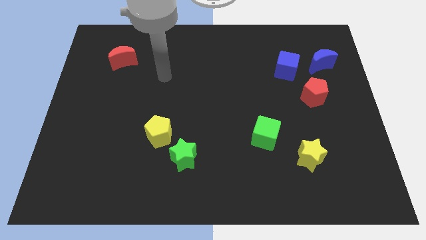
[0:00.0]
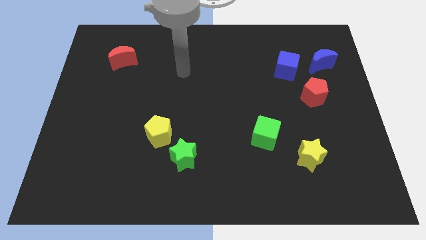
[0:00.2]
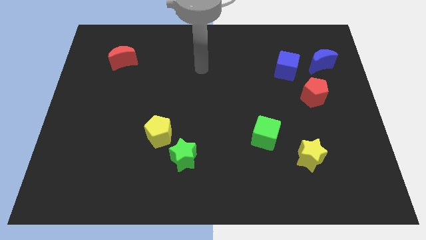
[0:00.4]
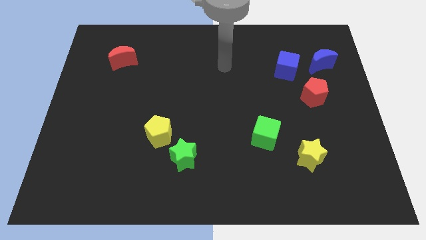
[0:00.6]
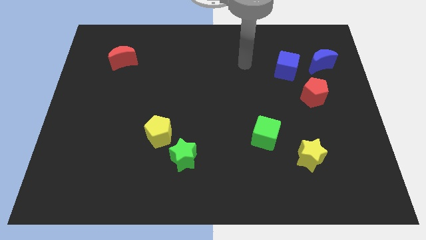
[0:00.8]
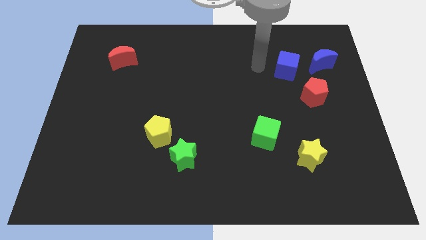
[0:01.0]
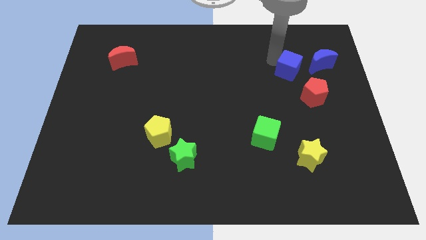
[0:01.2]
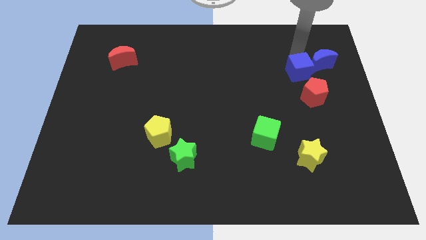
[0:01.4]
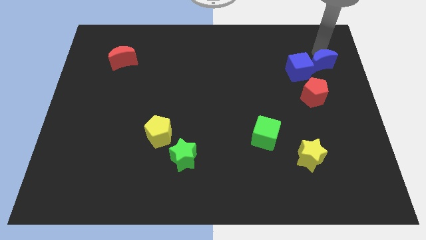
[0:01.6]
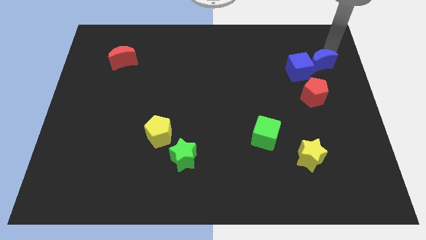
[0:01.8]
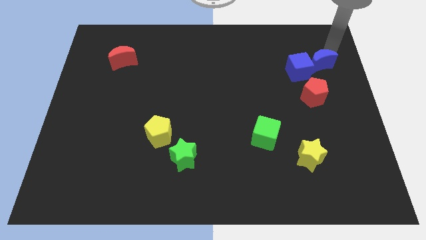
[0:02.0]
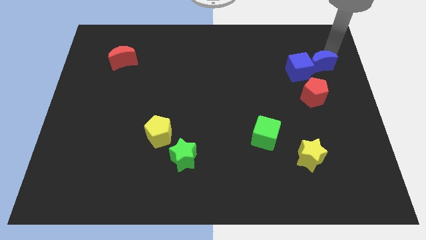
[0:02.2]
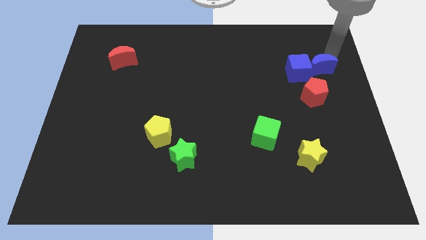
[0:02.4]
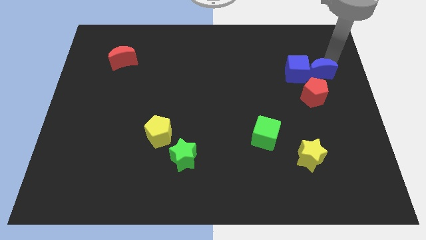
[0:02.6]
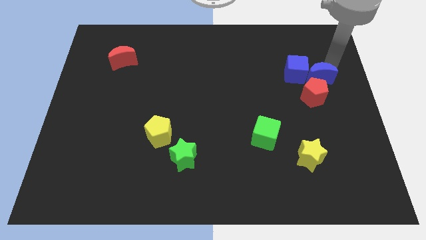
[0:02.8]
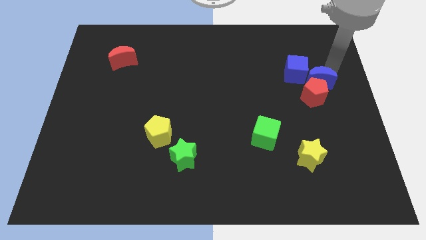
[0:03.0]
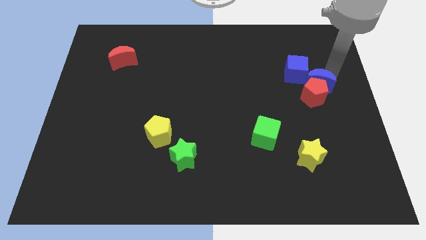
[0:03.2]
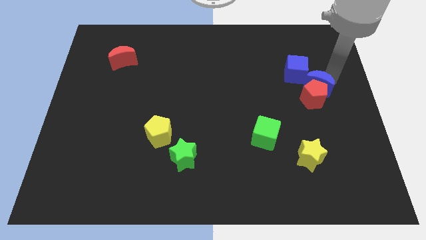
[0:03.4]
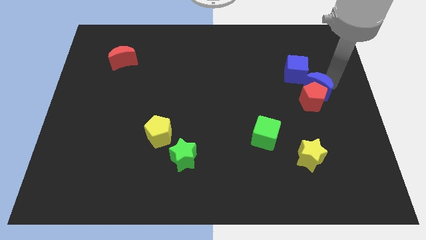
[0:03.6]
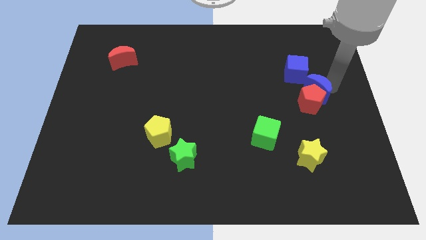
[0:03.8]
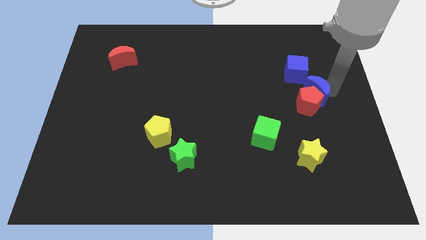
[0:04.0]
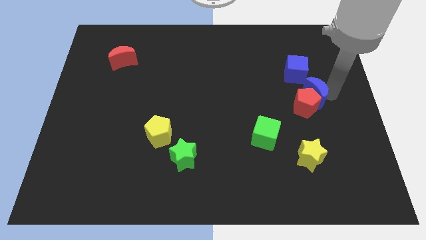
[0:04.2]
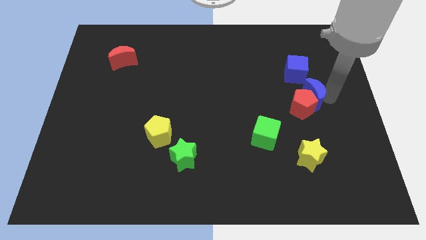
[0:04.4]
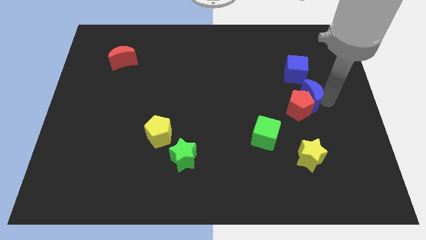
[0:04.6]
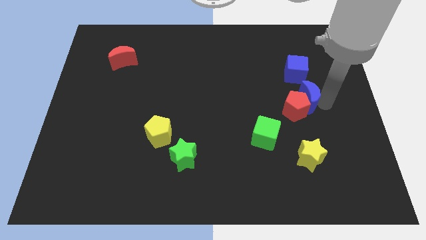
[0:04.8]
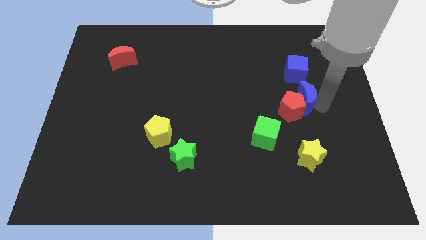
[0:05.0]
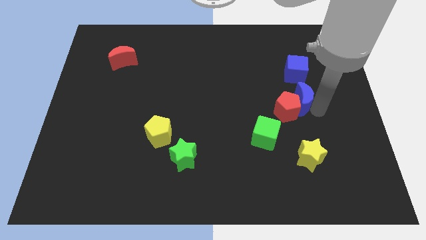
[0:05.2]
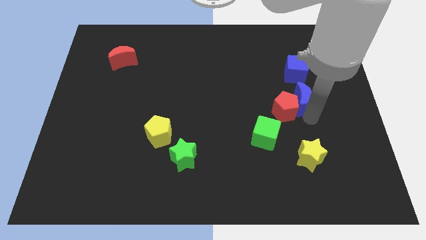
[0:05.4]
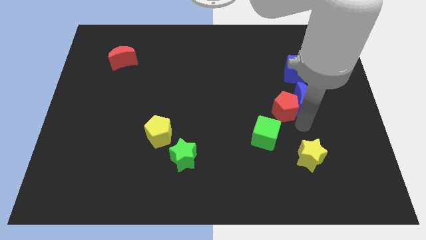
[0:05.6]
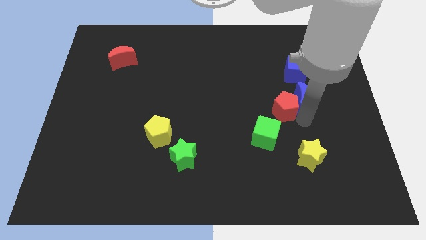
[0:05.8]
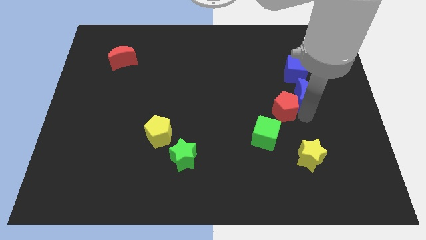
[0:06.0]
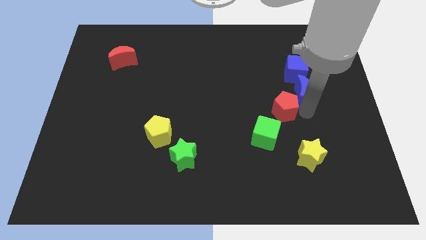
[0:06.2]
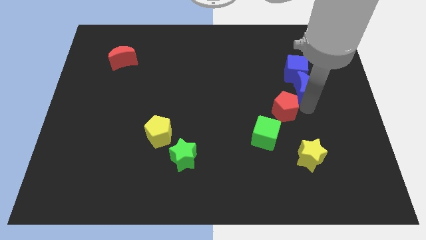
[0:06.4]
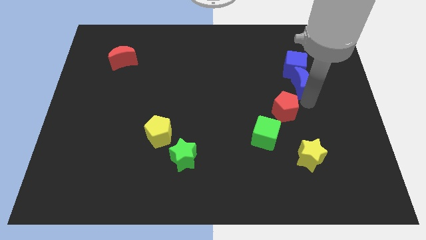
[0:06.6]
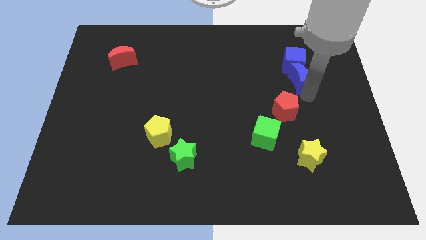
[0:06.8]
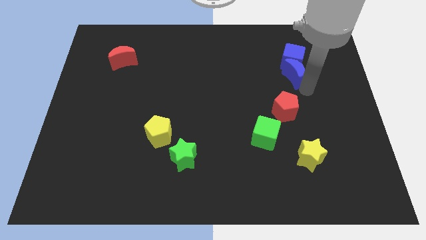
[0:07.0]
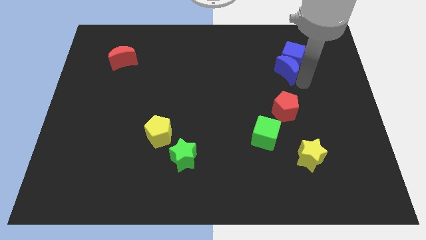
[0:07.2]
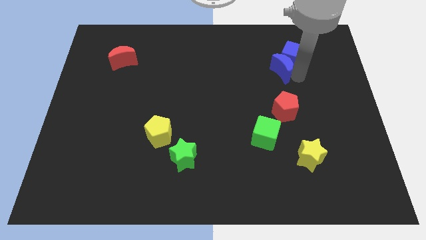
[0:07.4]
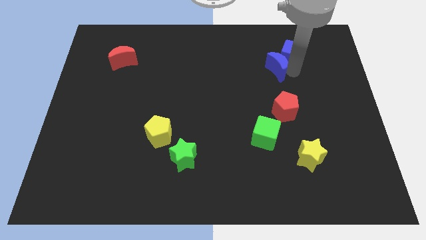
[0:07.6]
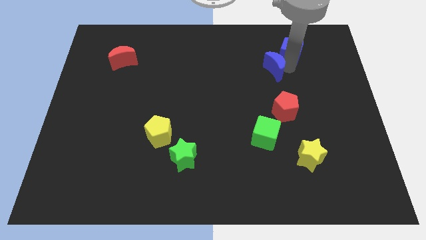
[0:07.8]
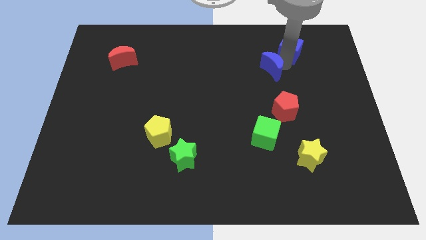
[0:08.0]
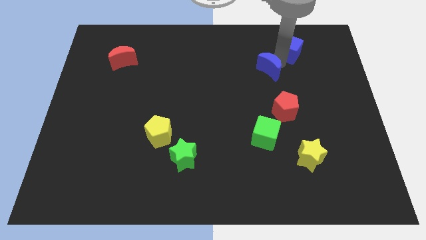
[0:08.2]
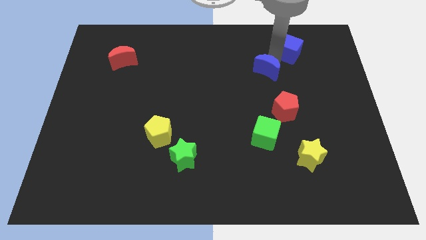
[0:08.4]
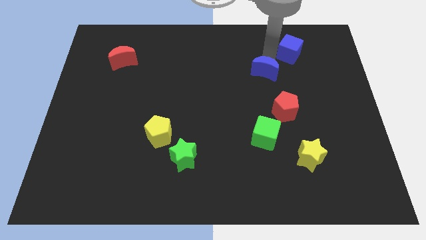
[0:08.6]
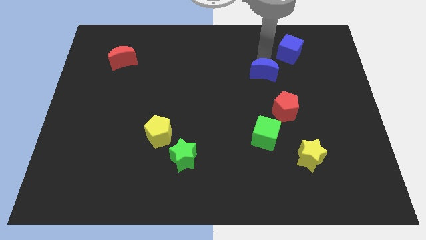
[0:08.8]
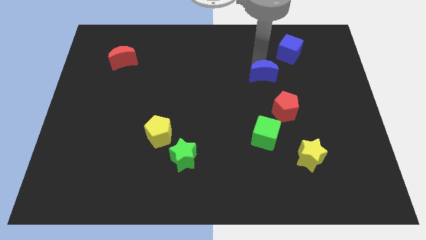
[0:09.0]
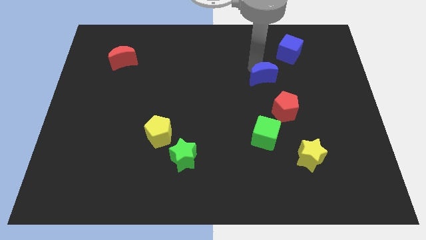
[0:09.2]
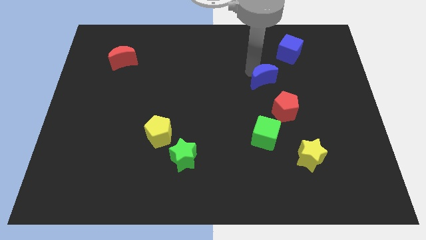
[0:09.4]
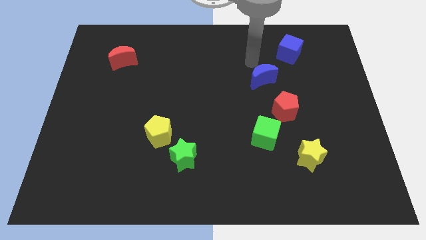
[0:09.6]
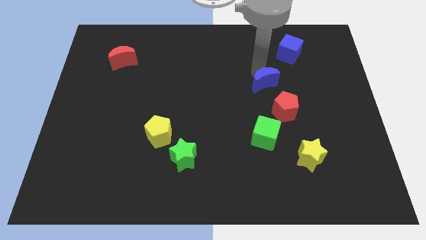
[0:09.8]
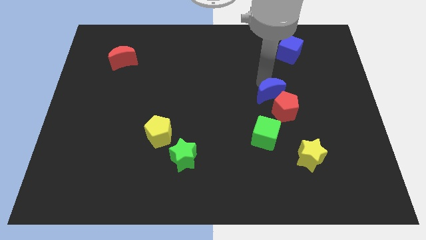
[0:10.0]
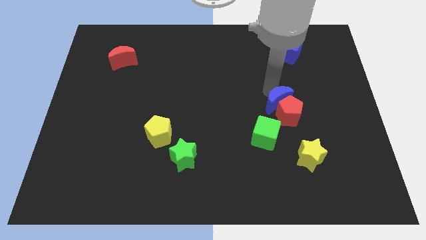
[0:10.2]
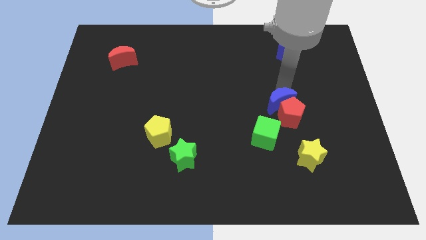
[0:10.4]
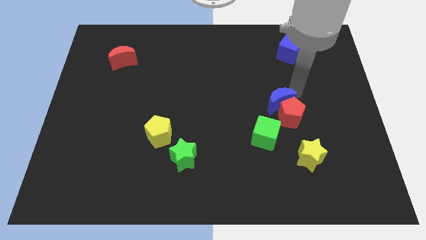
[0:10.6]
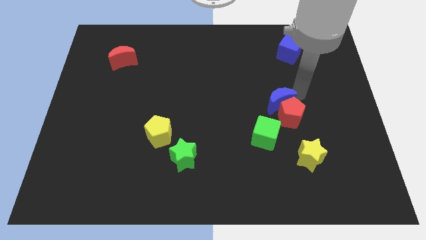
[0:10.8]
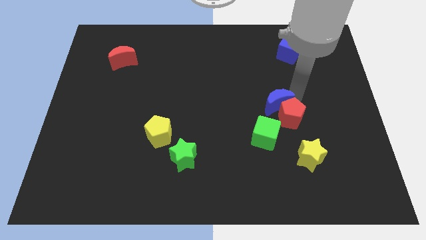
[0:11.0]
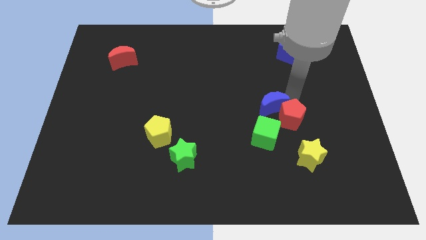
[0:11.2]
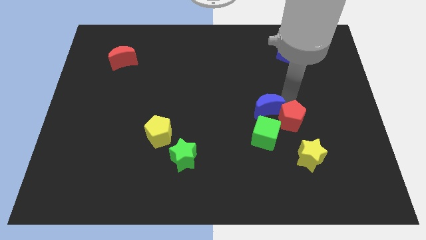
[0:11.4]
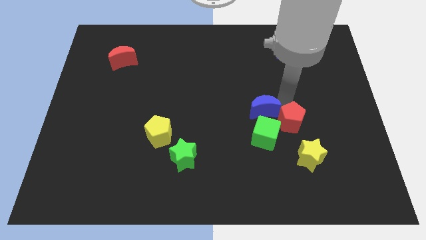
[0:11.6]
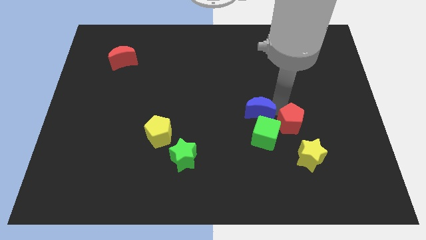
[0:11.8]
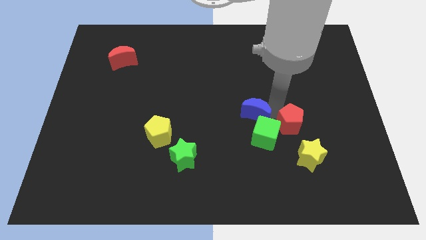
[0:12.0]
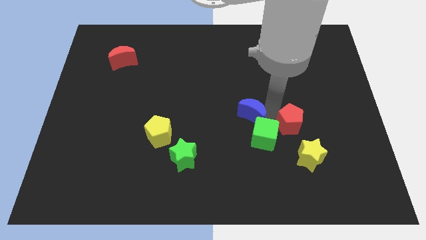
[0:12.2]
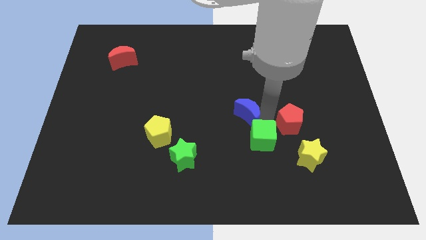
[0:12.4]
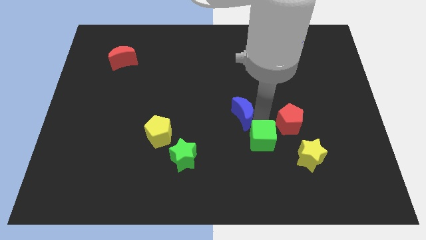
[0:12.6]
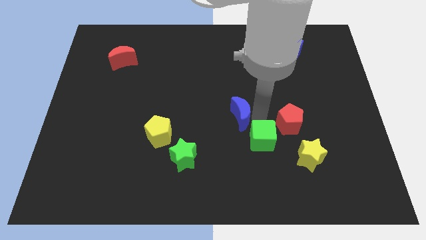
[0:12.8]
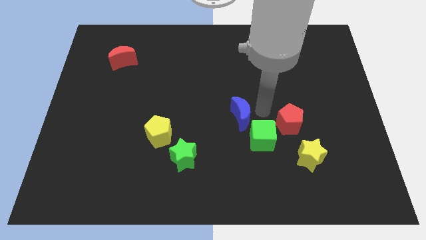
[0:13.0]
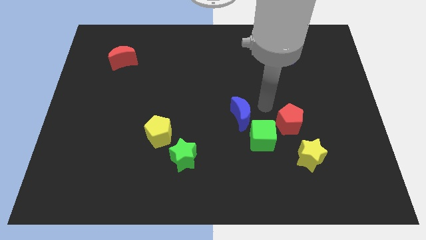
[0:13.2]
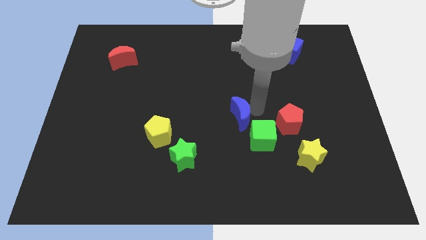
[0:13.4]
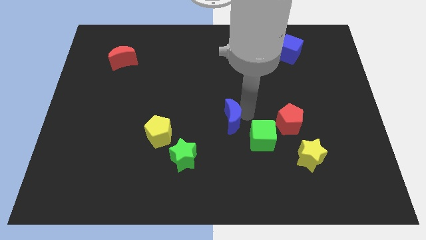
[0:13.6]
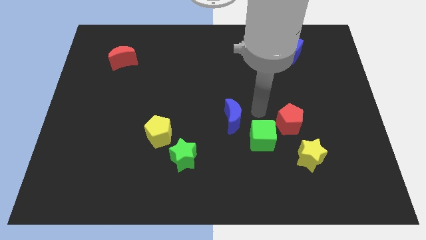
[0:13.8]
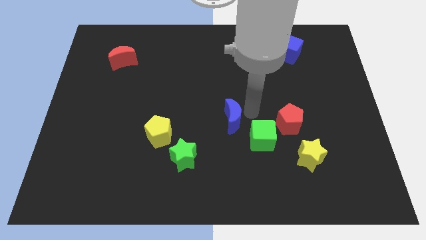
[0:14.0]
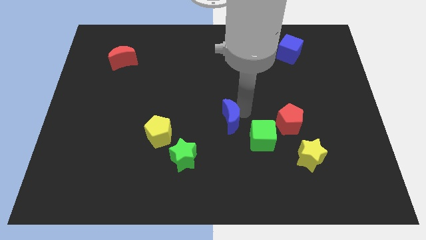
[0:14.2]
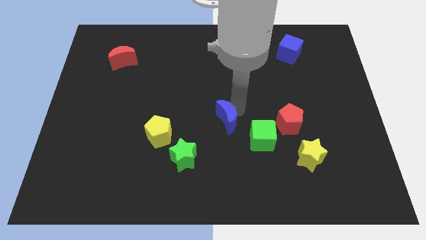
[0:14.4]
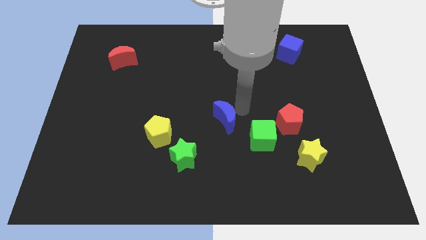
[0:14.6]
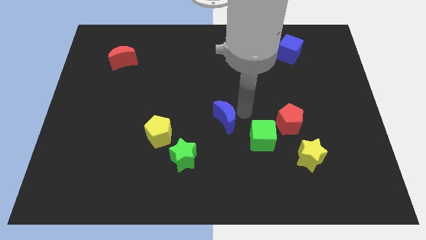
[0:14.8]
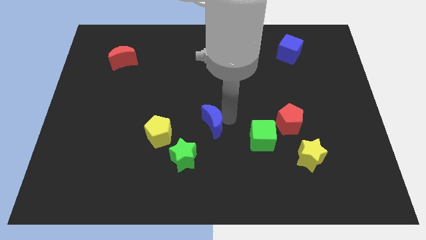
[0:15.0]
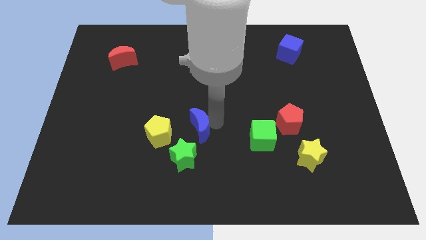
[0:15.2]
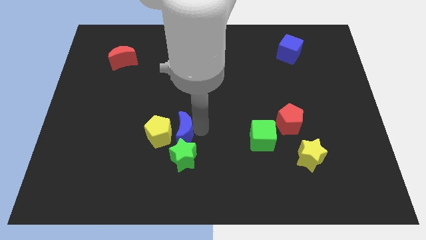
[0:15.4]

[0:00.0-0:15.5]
move the blue moon towards the yellow pentagon
